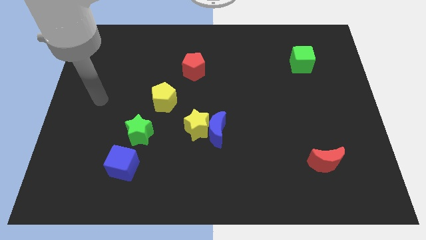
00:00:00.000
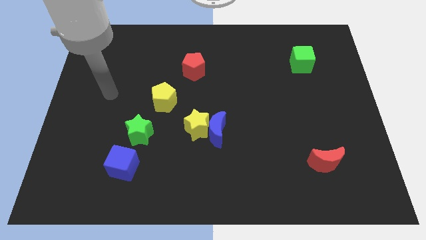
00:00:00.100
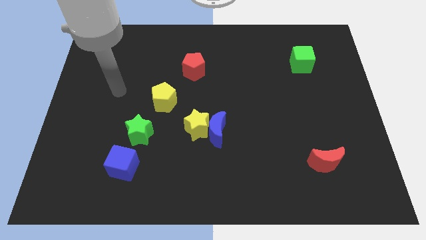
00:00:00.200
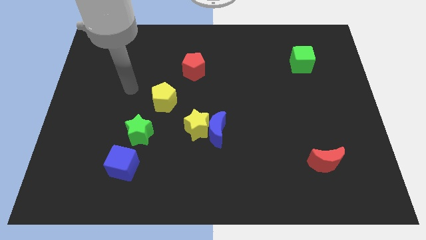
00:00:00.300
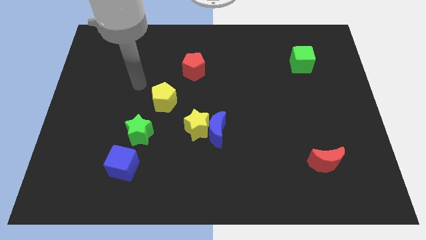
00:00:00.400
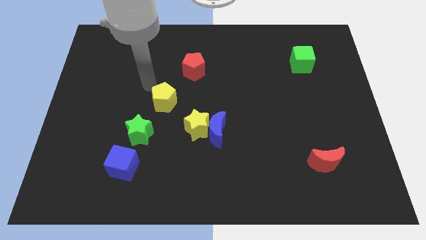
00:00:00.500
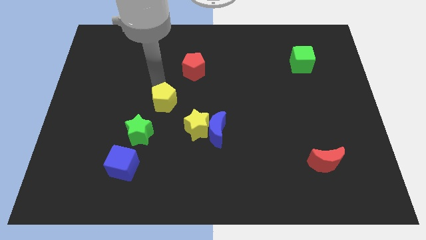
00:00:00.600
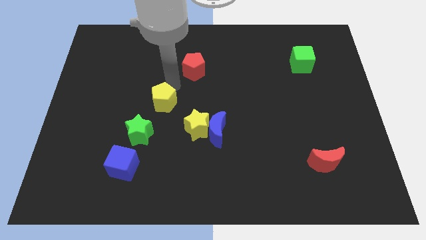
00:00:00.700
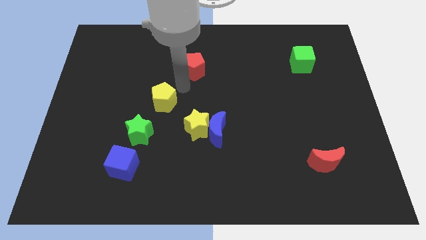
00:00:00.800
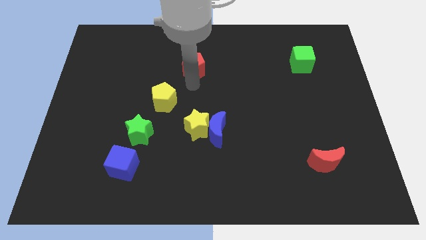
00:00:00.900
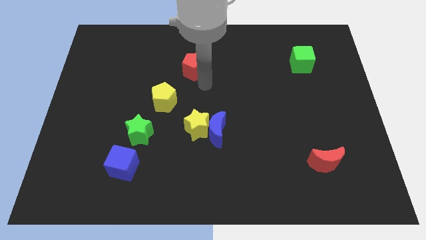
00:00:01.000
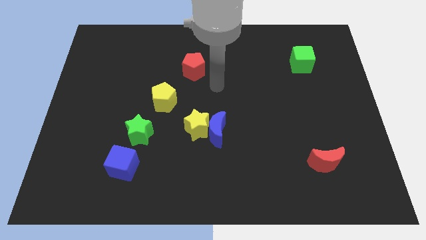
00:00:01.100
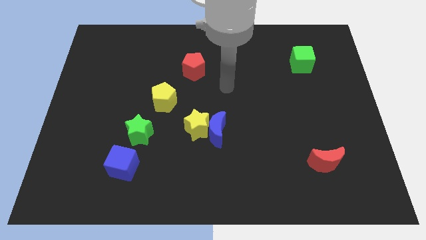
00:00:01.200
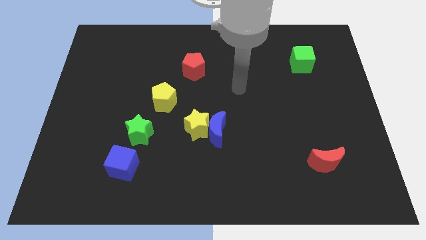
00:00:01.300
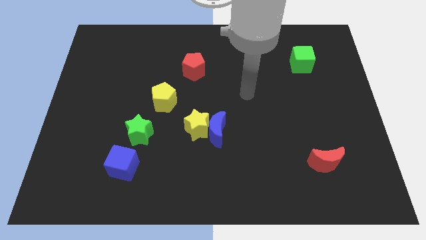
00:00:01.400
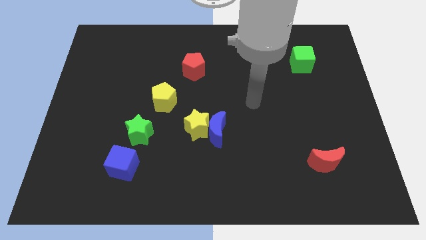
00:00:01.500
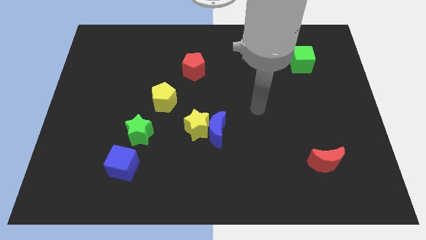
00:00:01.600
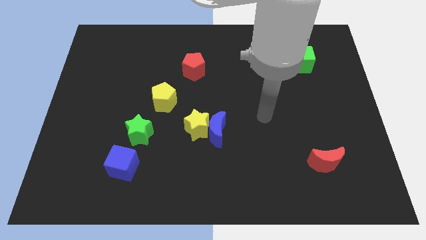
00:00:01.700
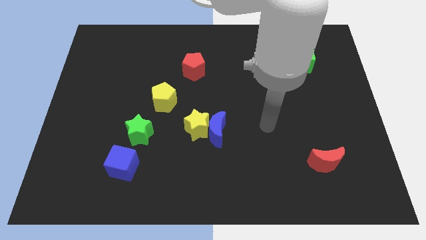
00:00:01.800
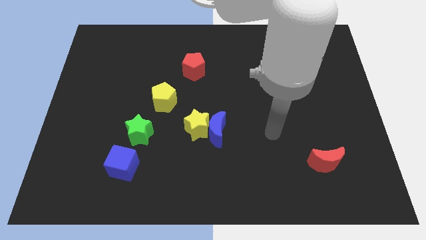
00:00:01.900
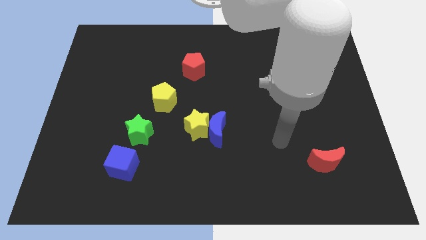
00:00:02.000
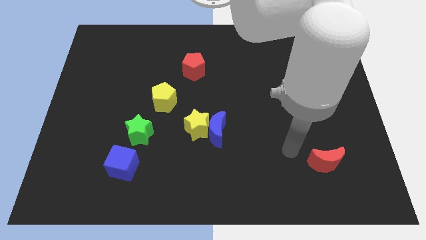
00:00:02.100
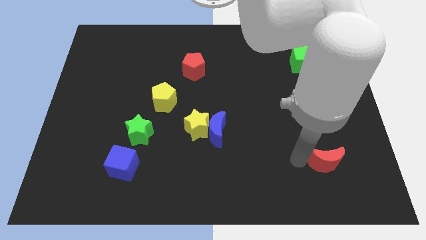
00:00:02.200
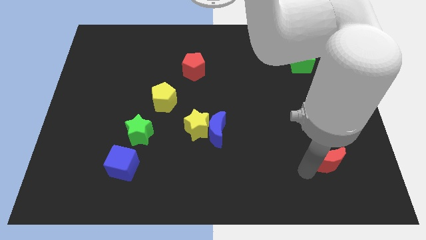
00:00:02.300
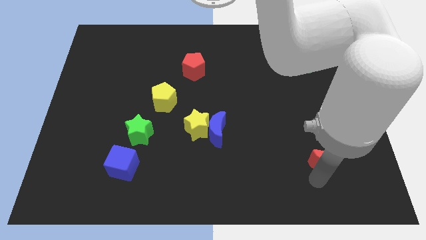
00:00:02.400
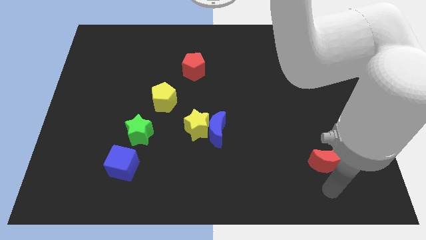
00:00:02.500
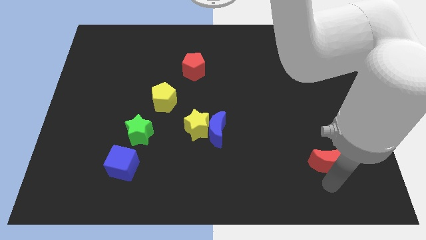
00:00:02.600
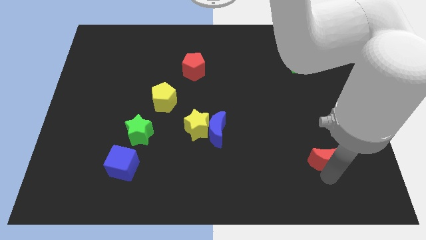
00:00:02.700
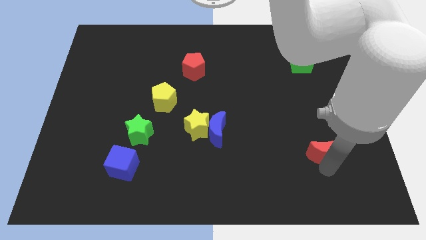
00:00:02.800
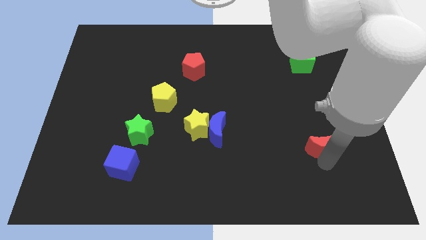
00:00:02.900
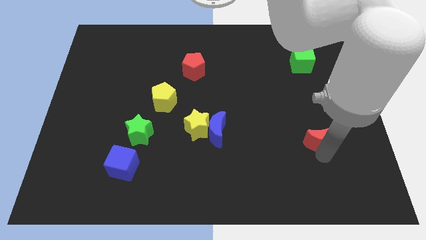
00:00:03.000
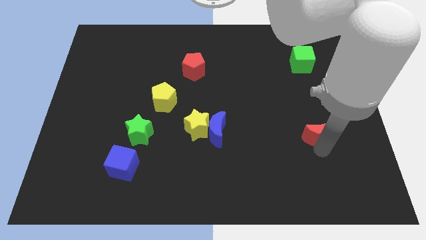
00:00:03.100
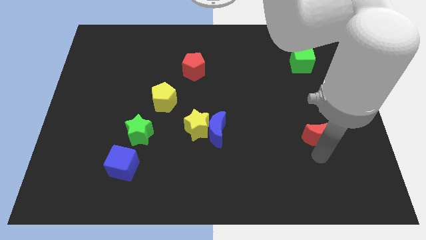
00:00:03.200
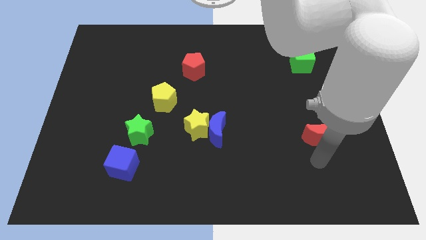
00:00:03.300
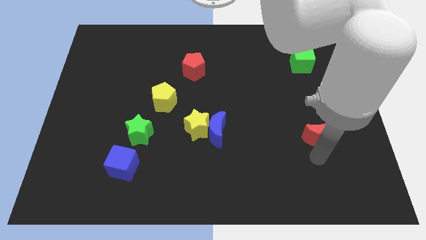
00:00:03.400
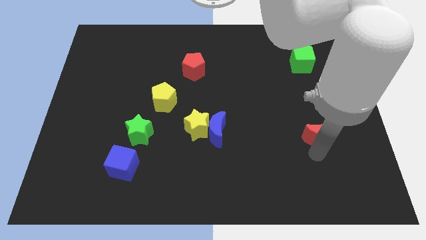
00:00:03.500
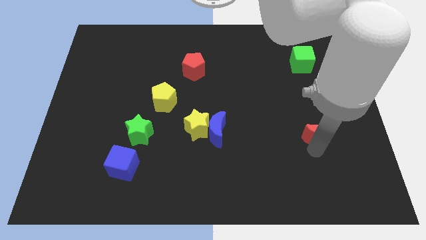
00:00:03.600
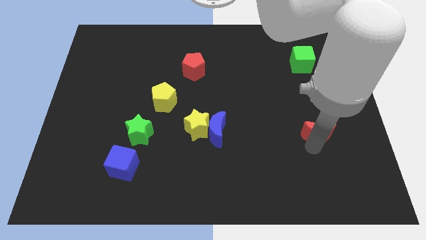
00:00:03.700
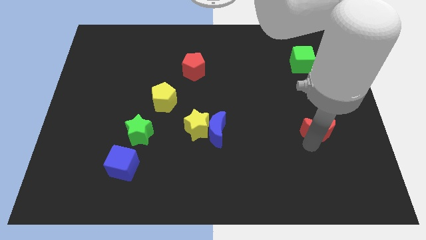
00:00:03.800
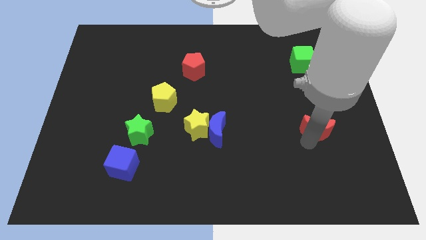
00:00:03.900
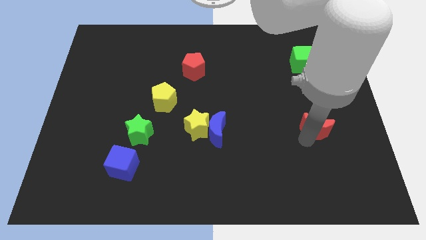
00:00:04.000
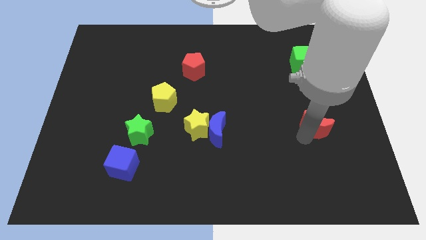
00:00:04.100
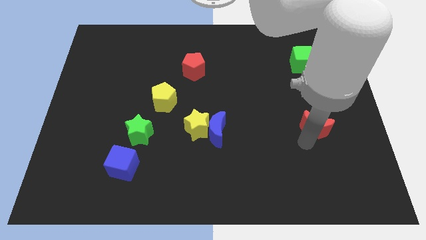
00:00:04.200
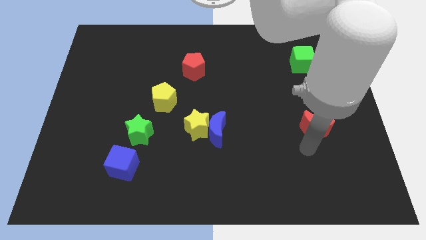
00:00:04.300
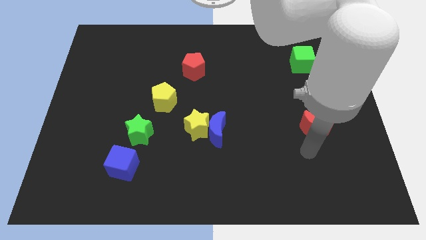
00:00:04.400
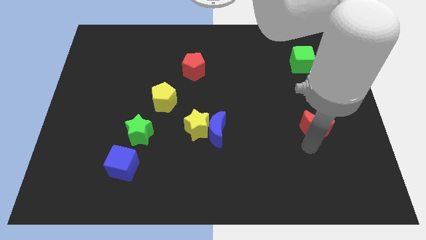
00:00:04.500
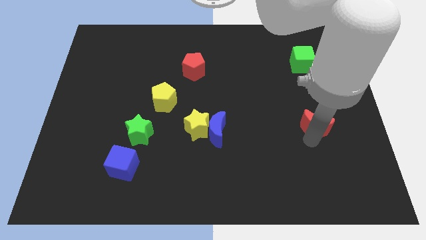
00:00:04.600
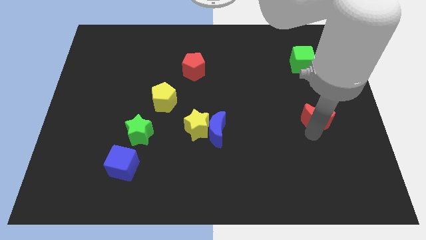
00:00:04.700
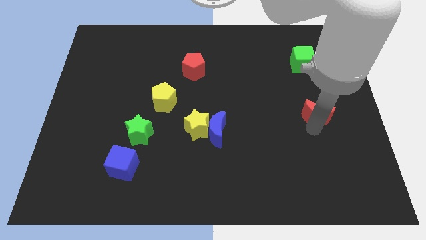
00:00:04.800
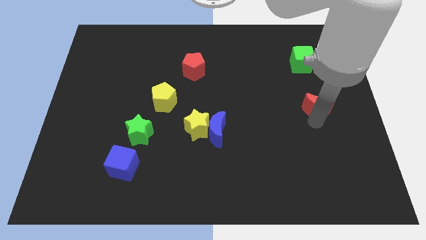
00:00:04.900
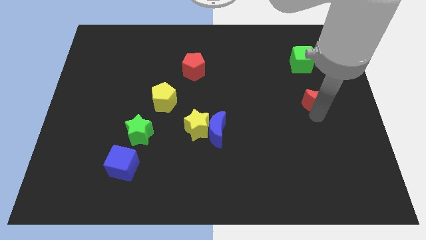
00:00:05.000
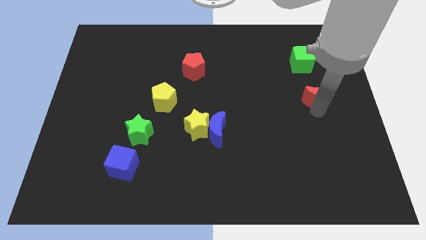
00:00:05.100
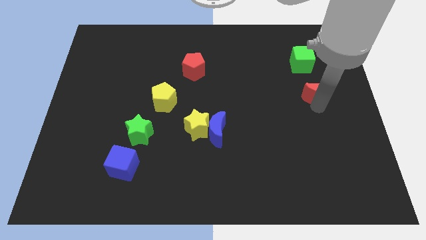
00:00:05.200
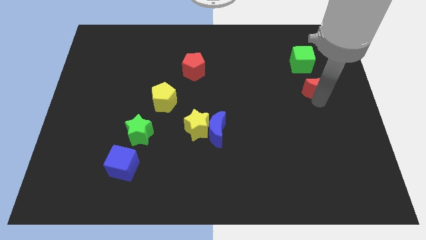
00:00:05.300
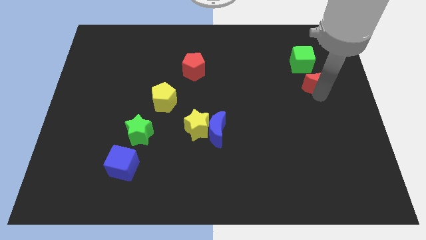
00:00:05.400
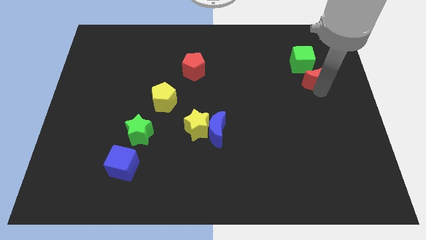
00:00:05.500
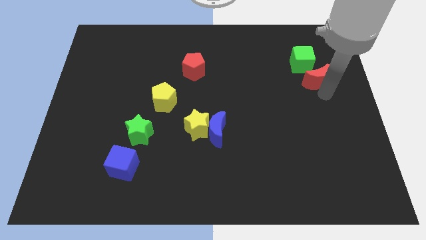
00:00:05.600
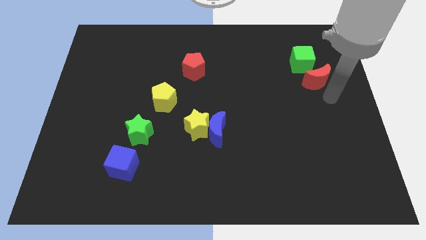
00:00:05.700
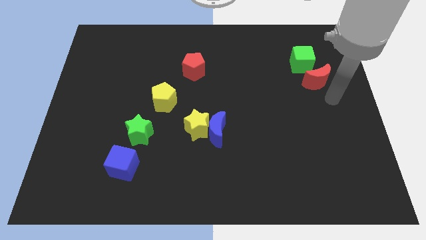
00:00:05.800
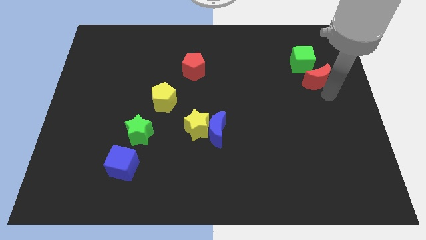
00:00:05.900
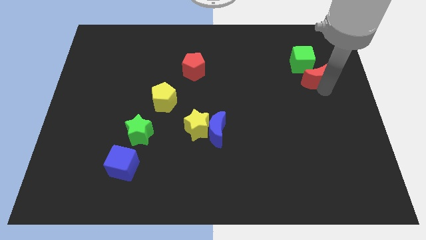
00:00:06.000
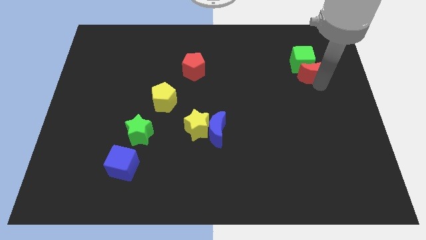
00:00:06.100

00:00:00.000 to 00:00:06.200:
slide the red moon to the green cube

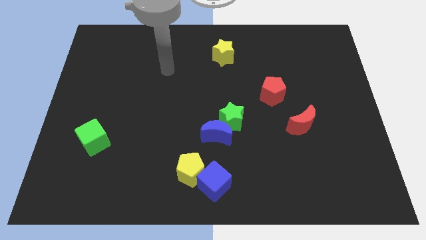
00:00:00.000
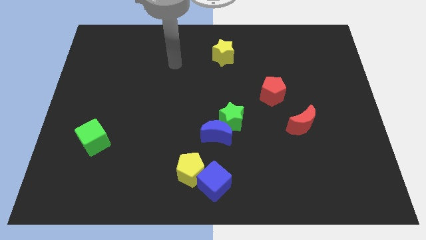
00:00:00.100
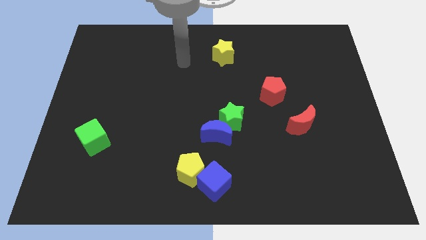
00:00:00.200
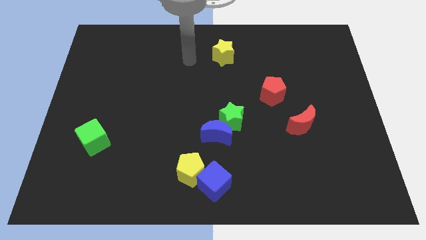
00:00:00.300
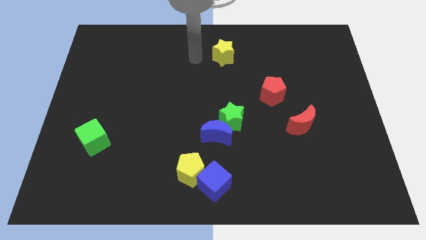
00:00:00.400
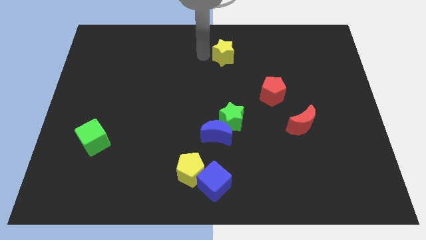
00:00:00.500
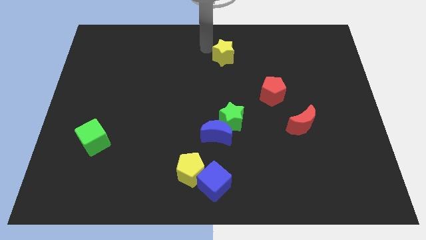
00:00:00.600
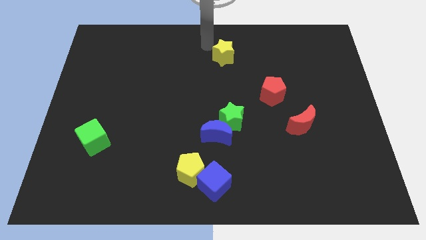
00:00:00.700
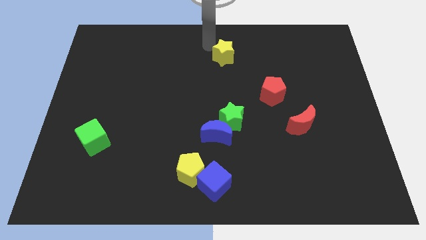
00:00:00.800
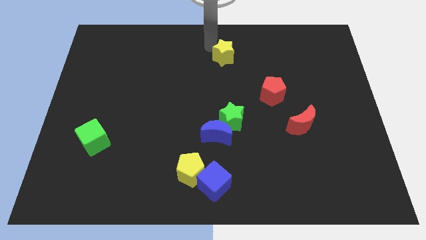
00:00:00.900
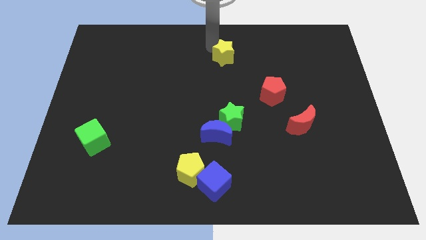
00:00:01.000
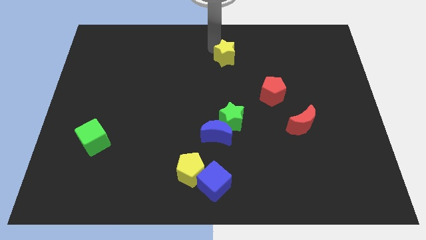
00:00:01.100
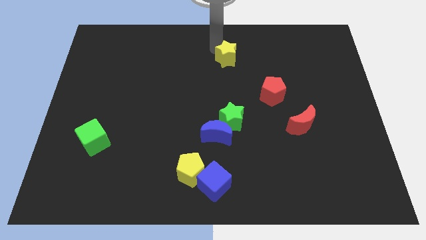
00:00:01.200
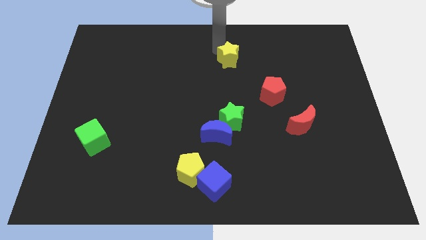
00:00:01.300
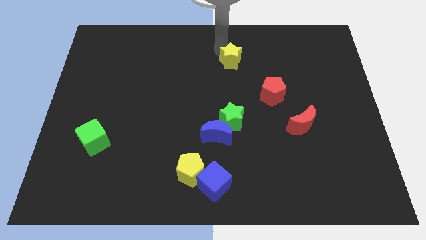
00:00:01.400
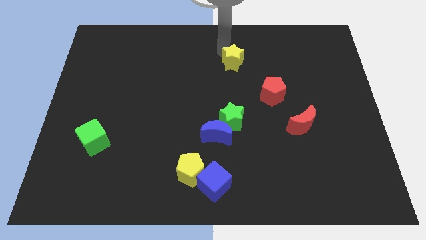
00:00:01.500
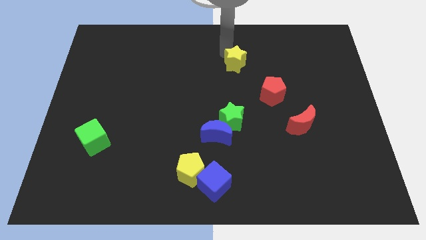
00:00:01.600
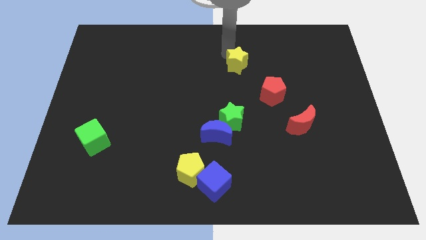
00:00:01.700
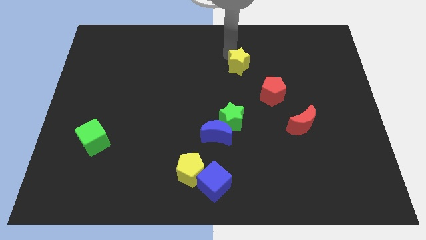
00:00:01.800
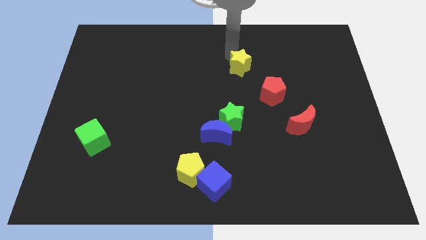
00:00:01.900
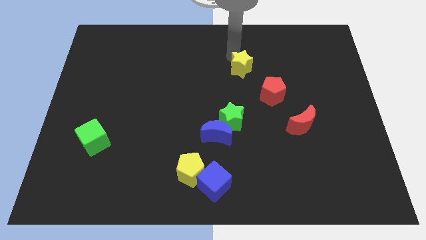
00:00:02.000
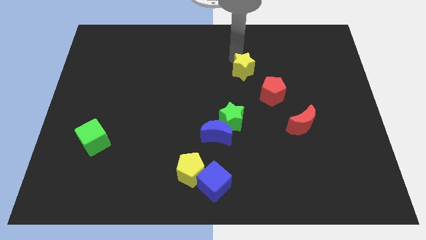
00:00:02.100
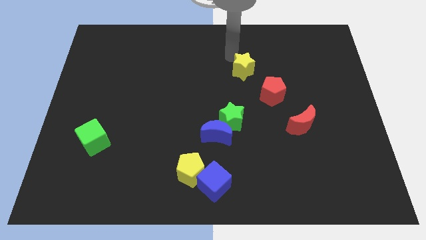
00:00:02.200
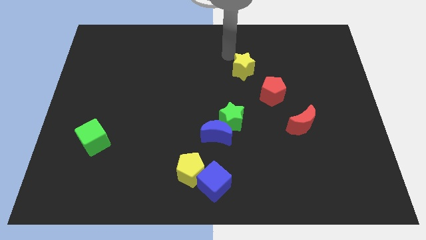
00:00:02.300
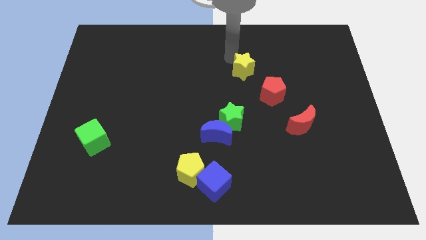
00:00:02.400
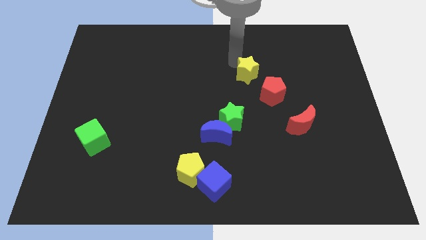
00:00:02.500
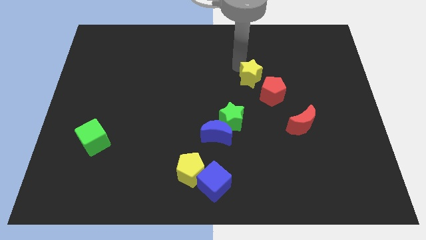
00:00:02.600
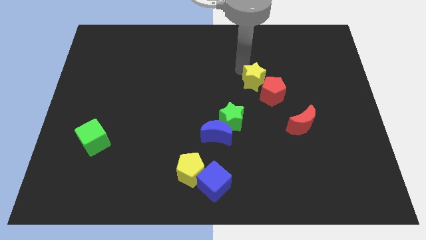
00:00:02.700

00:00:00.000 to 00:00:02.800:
move the yellow star next to the red pentagon
